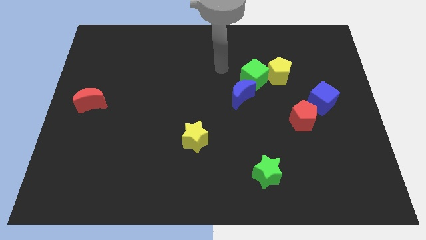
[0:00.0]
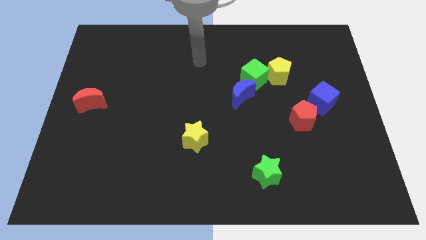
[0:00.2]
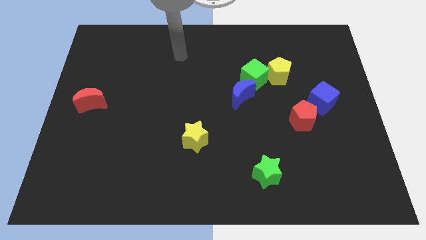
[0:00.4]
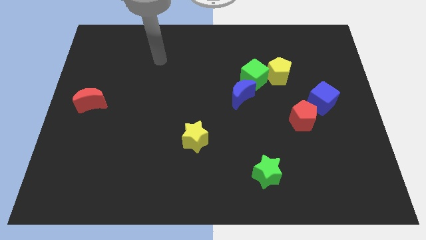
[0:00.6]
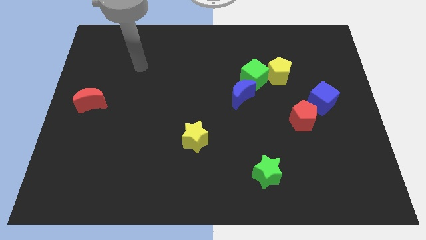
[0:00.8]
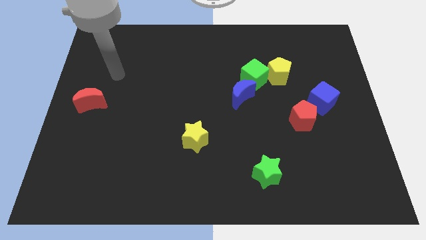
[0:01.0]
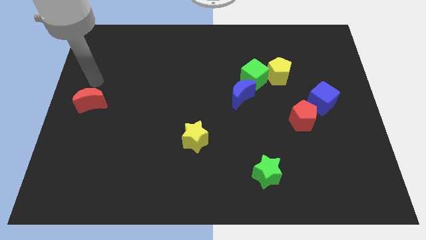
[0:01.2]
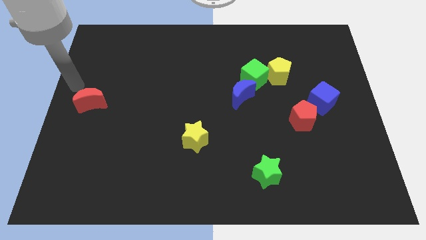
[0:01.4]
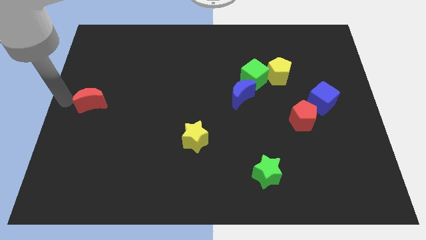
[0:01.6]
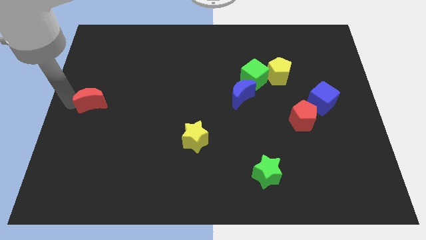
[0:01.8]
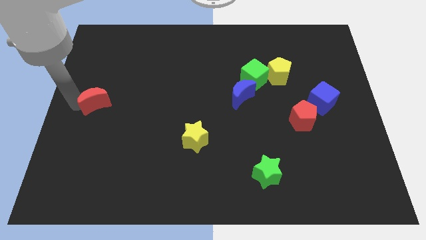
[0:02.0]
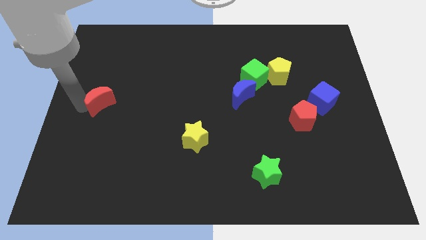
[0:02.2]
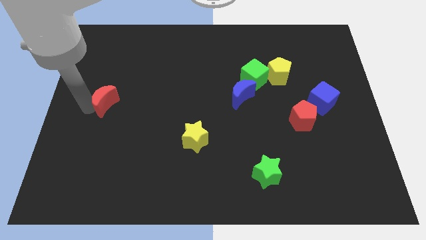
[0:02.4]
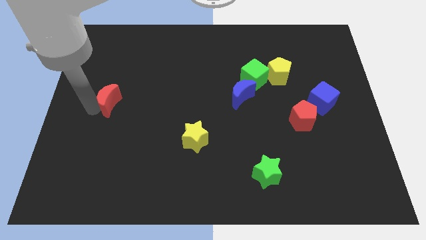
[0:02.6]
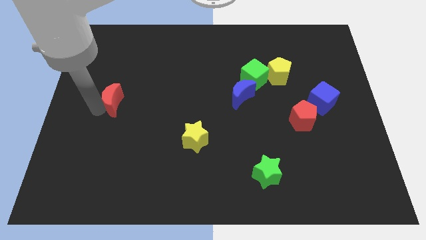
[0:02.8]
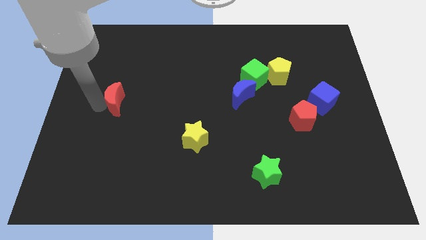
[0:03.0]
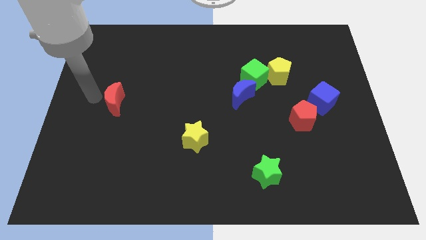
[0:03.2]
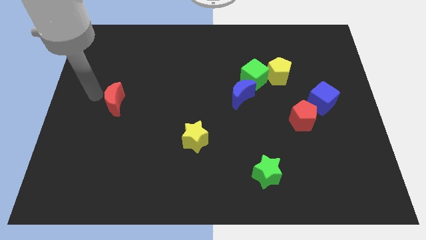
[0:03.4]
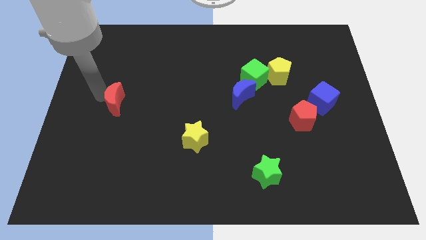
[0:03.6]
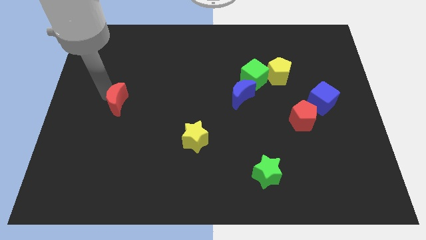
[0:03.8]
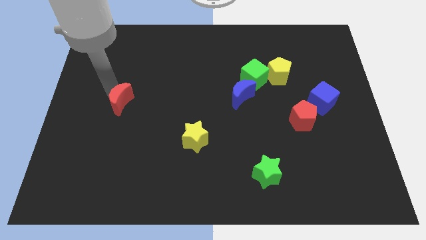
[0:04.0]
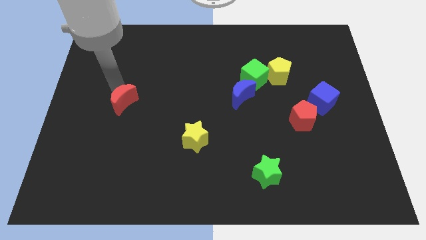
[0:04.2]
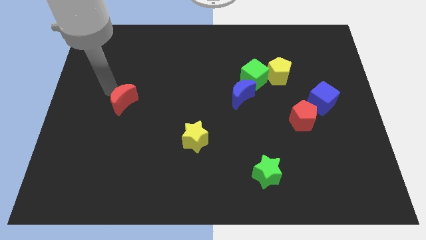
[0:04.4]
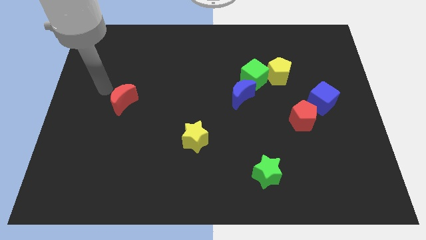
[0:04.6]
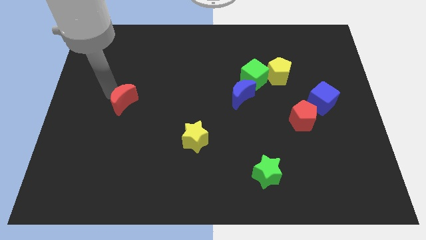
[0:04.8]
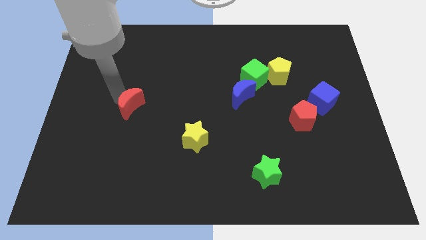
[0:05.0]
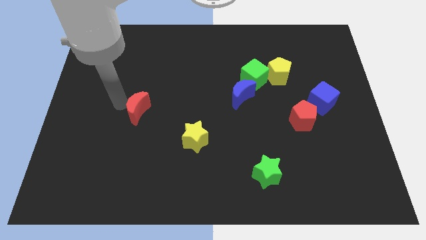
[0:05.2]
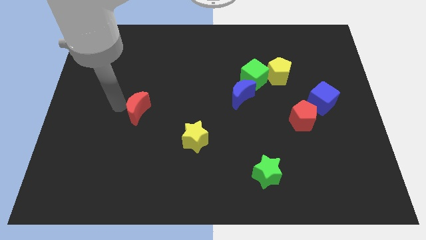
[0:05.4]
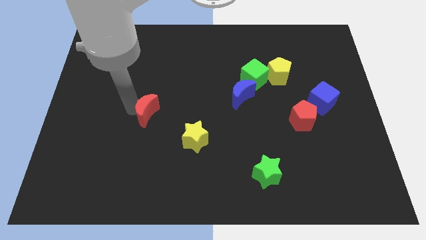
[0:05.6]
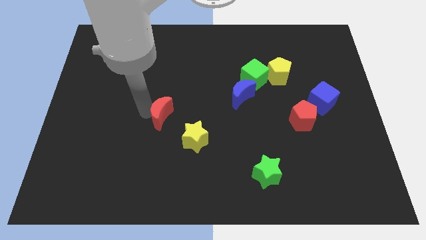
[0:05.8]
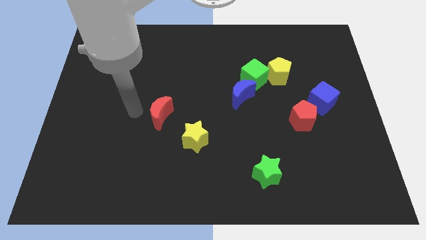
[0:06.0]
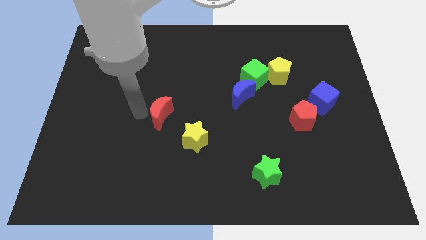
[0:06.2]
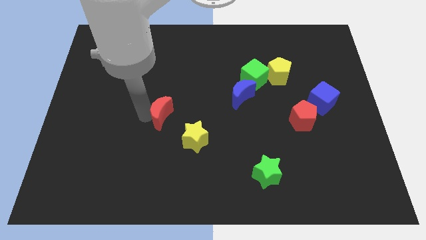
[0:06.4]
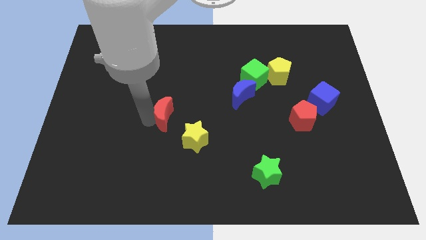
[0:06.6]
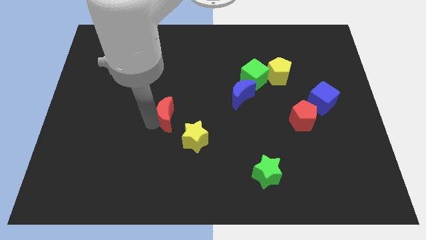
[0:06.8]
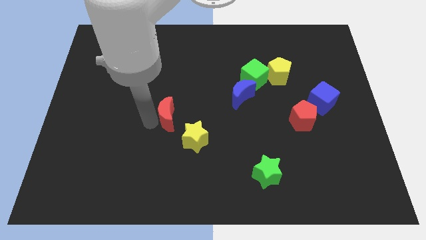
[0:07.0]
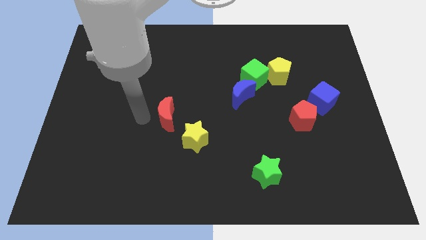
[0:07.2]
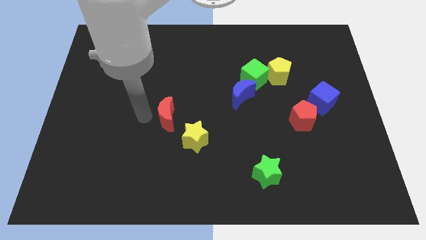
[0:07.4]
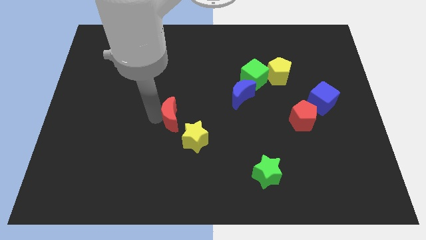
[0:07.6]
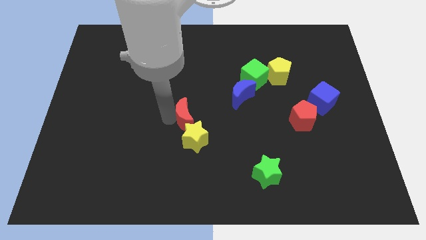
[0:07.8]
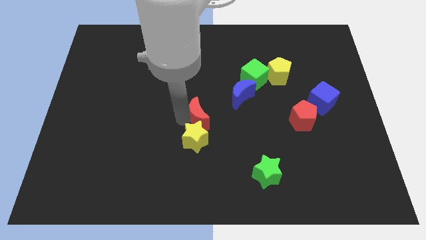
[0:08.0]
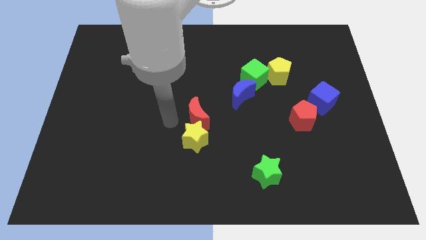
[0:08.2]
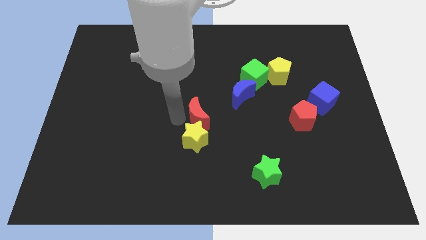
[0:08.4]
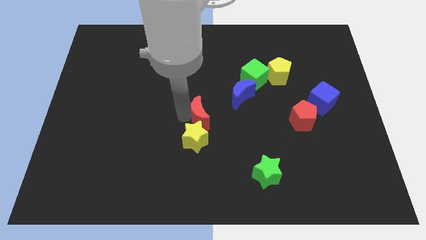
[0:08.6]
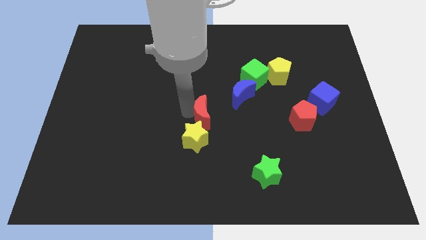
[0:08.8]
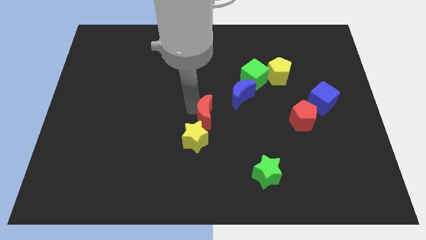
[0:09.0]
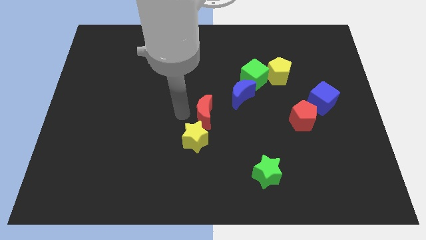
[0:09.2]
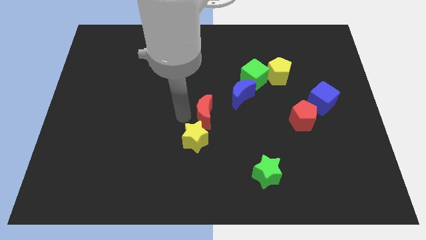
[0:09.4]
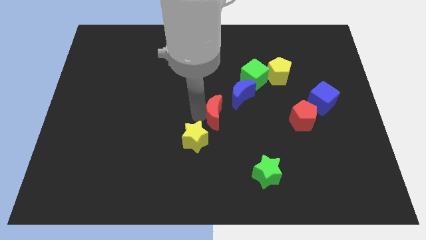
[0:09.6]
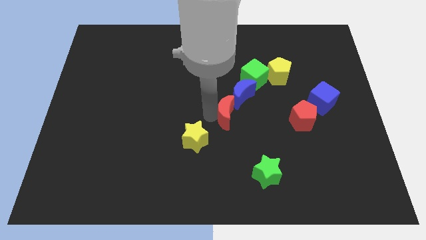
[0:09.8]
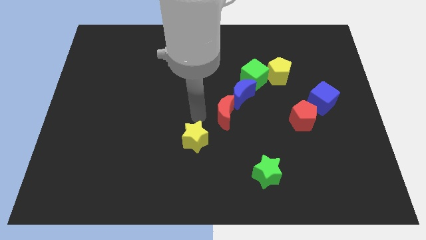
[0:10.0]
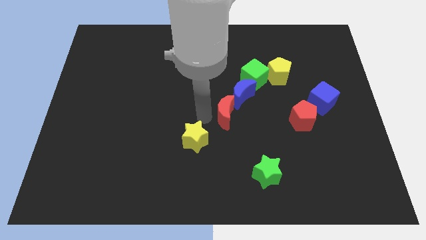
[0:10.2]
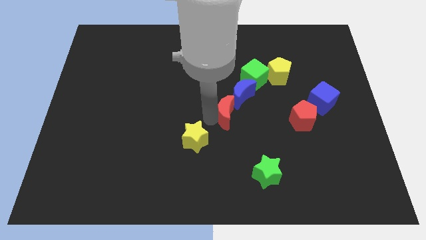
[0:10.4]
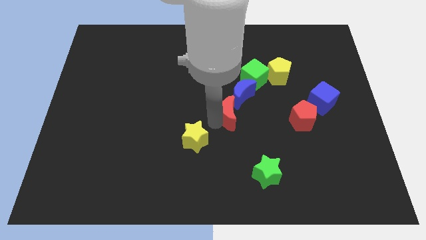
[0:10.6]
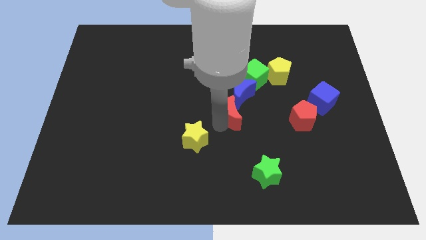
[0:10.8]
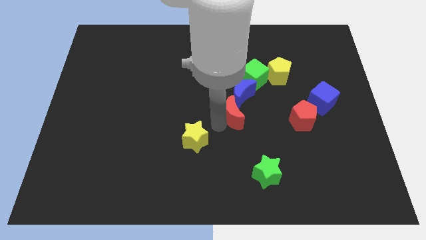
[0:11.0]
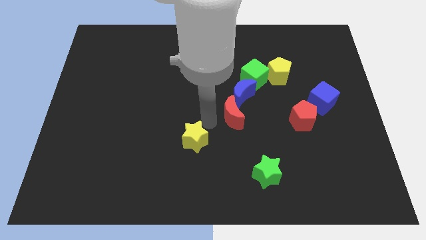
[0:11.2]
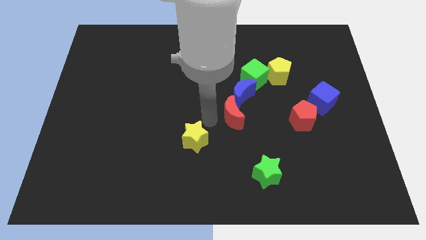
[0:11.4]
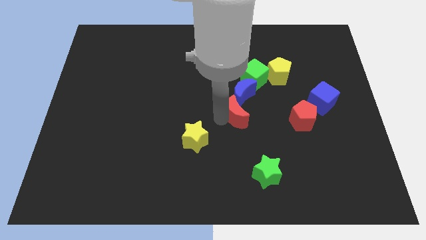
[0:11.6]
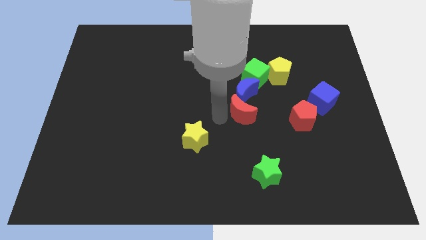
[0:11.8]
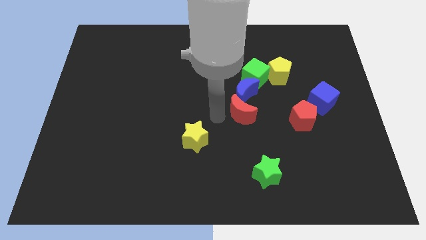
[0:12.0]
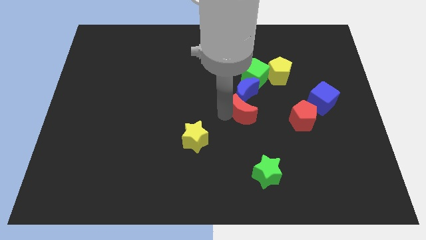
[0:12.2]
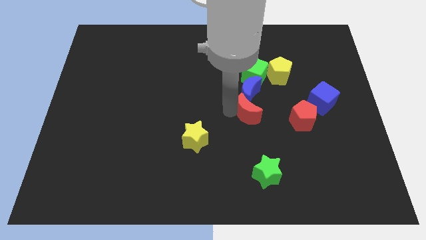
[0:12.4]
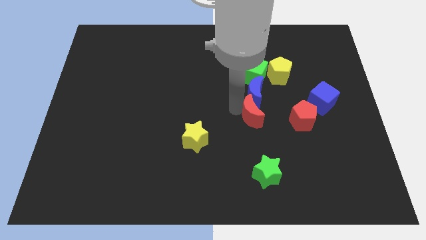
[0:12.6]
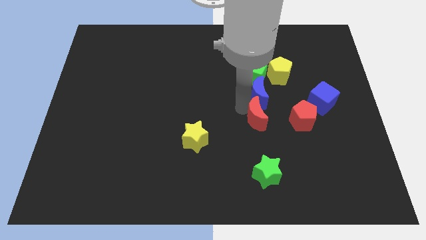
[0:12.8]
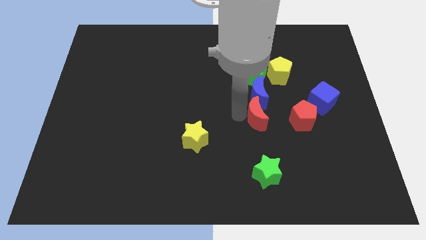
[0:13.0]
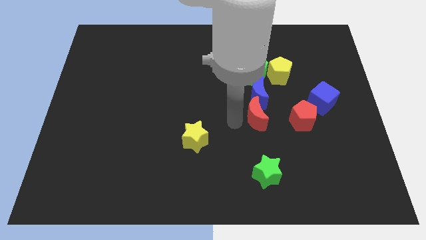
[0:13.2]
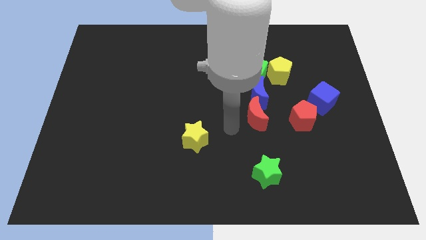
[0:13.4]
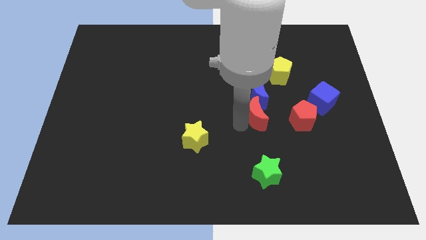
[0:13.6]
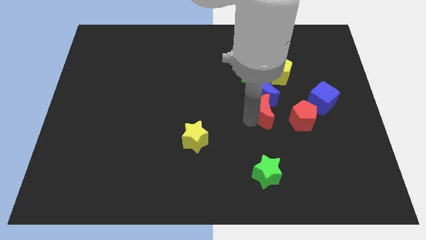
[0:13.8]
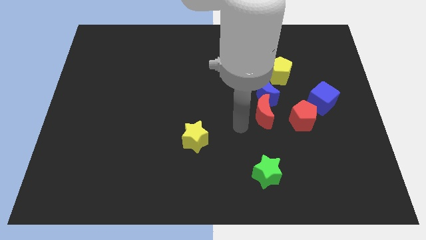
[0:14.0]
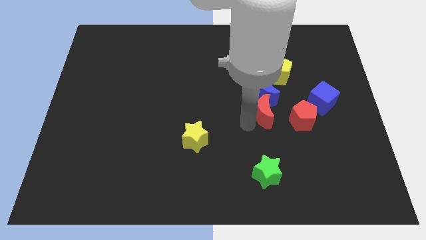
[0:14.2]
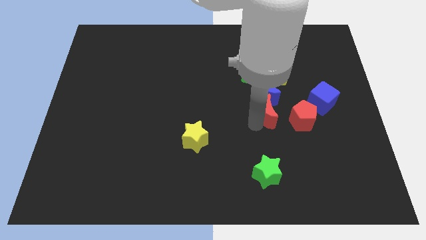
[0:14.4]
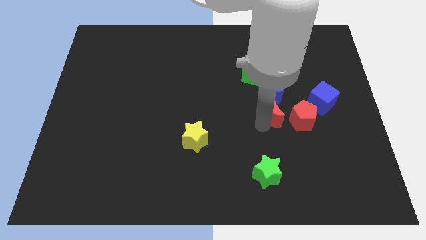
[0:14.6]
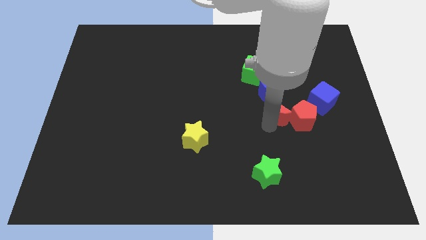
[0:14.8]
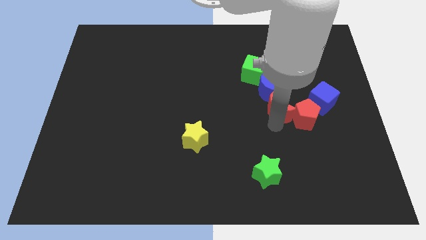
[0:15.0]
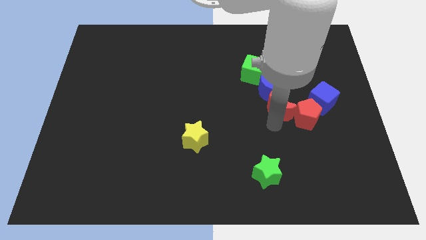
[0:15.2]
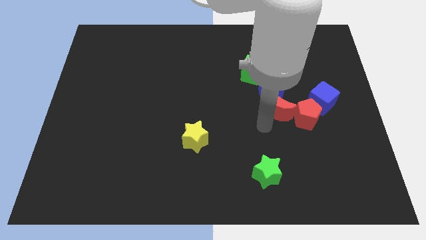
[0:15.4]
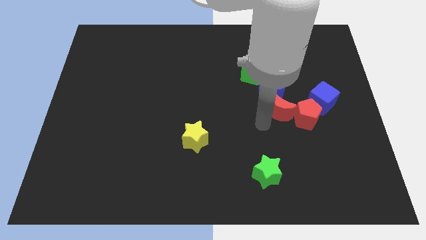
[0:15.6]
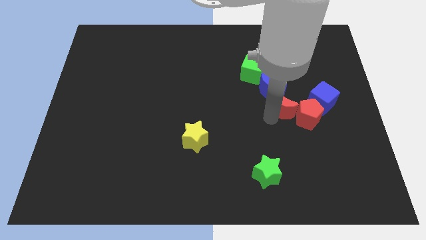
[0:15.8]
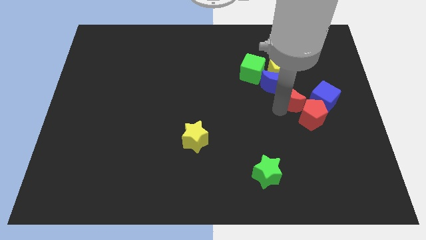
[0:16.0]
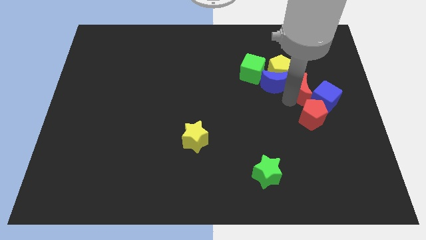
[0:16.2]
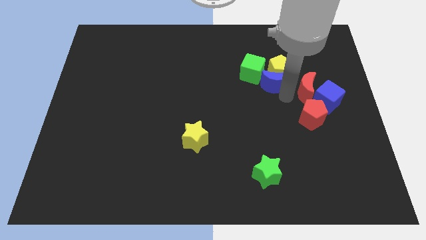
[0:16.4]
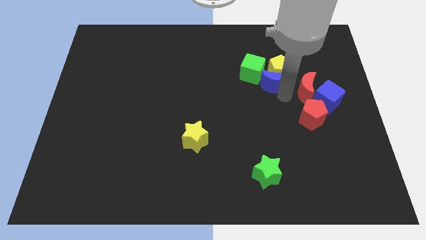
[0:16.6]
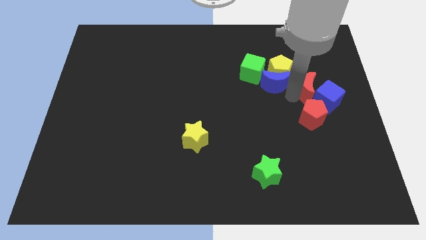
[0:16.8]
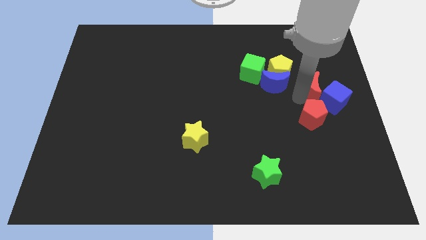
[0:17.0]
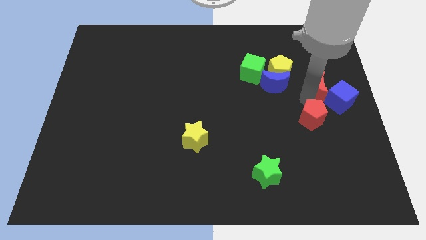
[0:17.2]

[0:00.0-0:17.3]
move the red moon to the right side of the board
